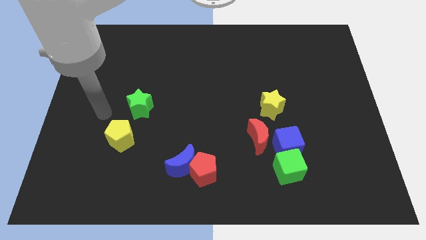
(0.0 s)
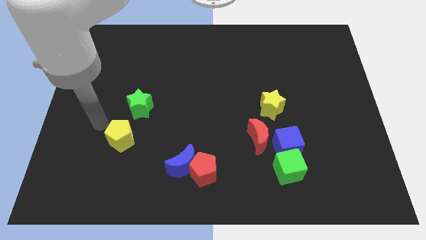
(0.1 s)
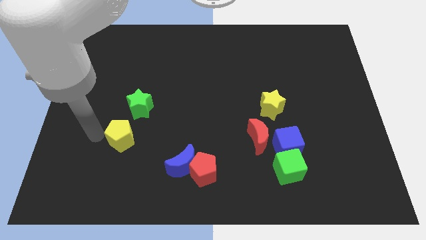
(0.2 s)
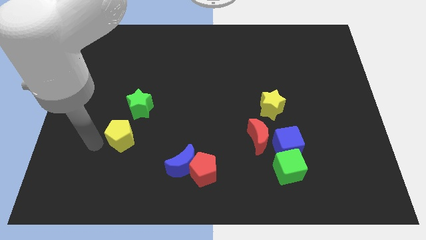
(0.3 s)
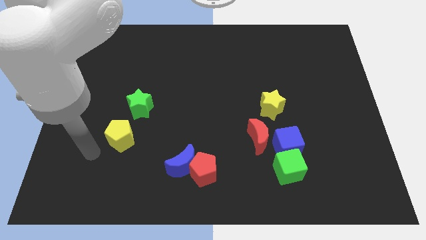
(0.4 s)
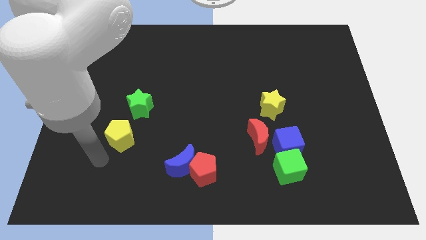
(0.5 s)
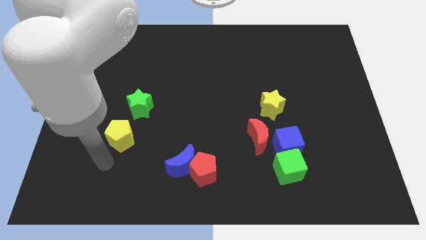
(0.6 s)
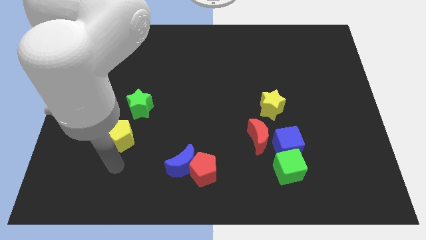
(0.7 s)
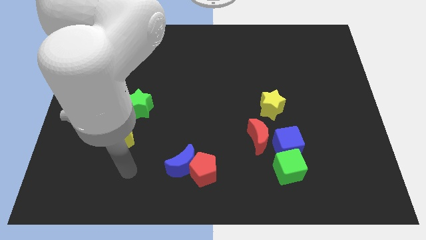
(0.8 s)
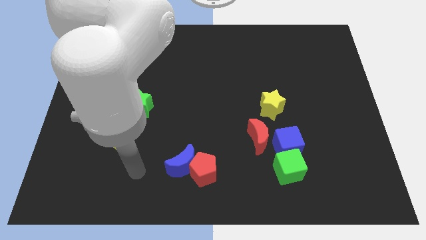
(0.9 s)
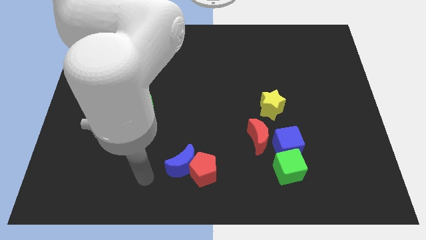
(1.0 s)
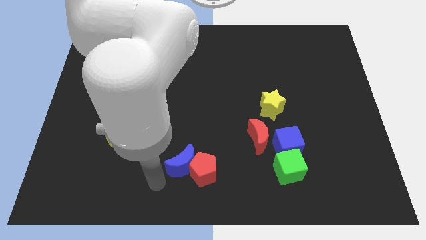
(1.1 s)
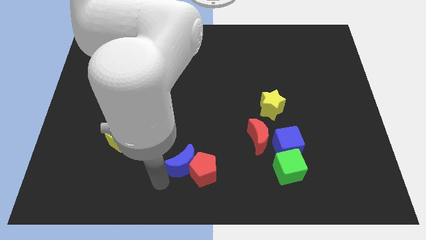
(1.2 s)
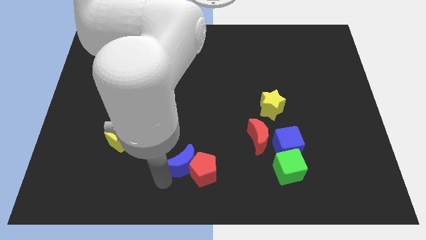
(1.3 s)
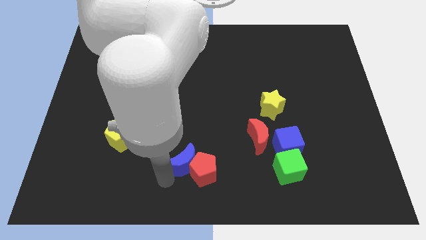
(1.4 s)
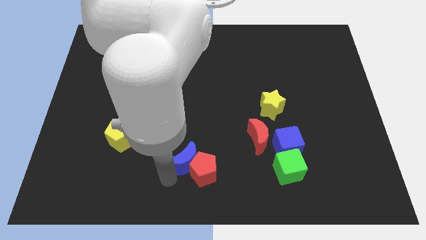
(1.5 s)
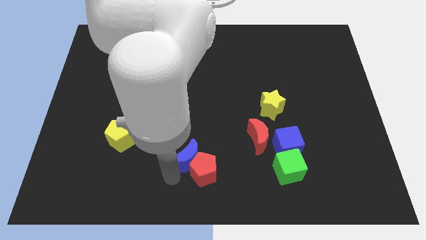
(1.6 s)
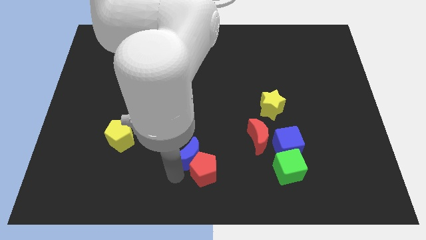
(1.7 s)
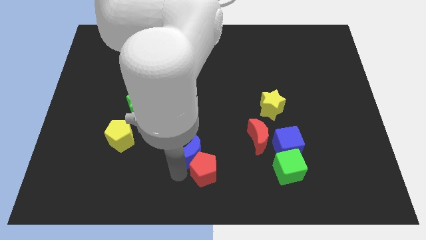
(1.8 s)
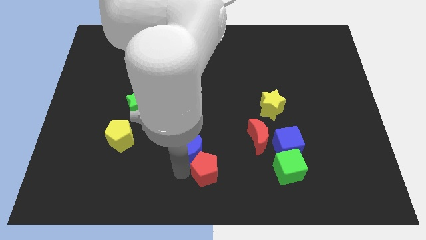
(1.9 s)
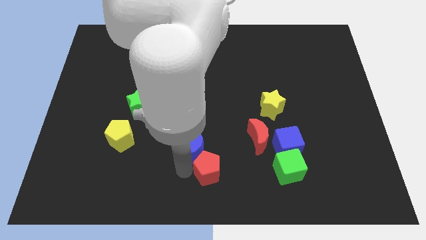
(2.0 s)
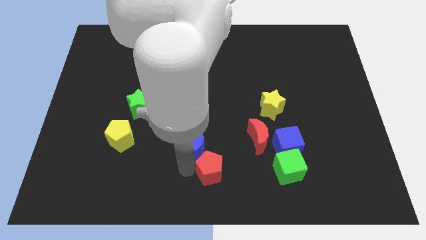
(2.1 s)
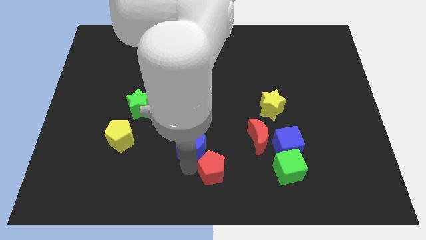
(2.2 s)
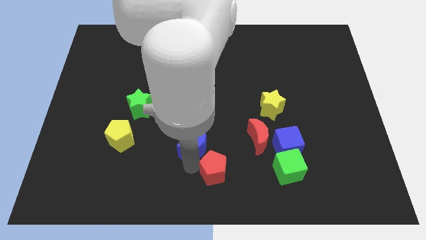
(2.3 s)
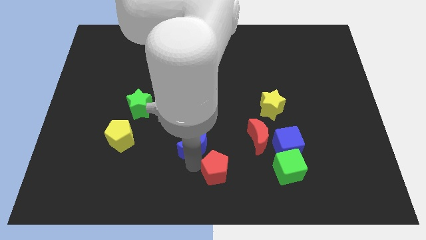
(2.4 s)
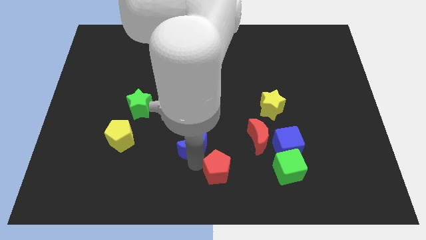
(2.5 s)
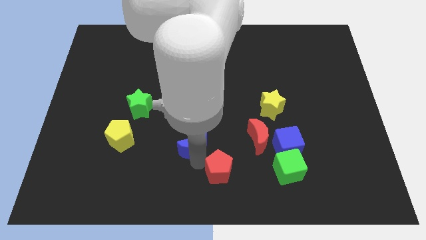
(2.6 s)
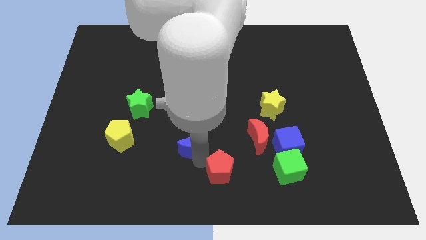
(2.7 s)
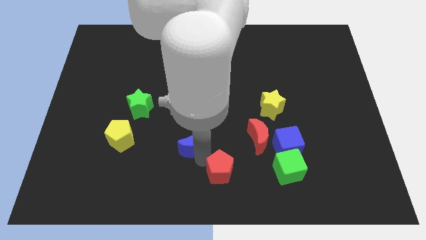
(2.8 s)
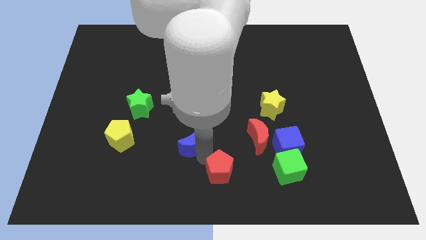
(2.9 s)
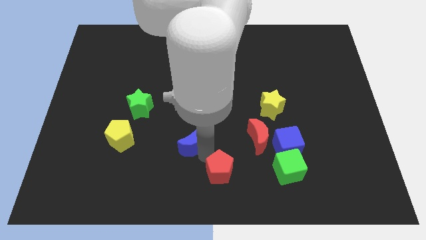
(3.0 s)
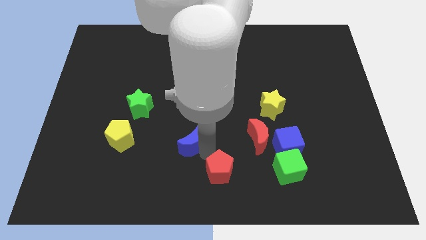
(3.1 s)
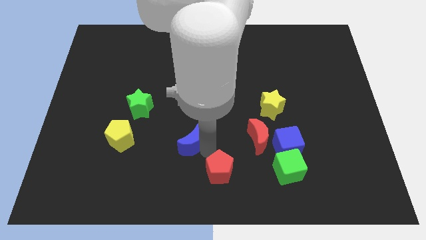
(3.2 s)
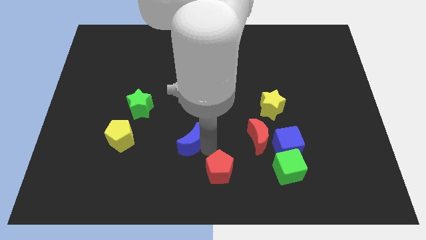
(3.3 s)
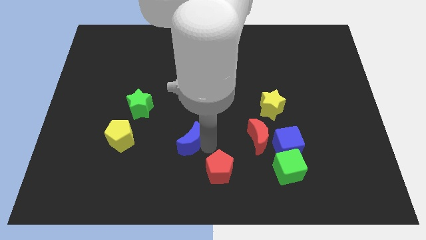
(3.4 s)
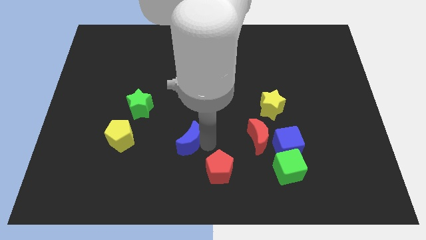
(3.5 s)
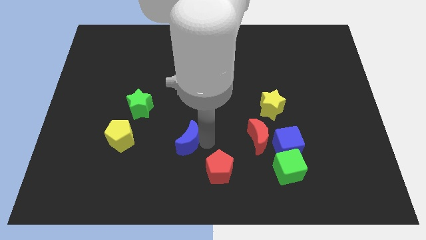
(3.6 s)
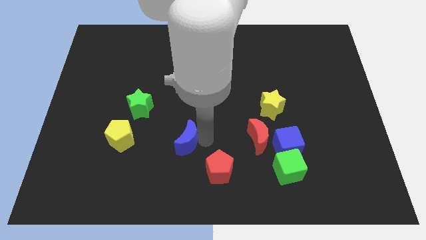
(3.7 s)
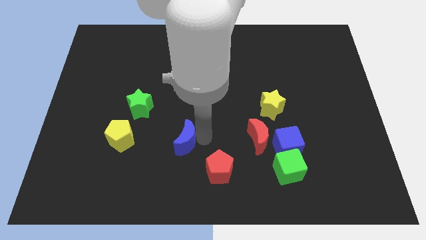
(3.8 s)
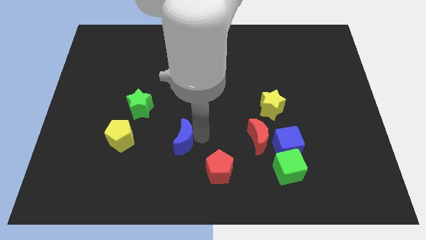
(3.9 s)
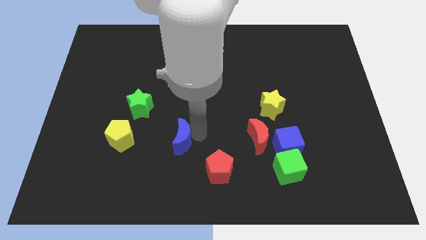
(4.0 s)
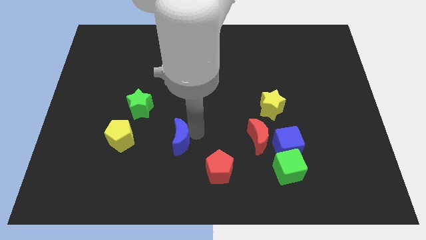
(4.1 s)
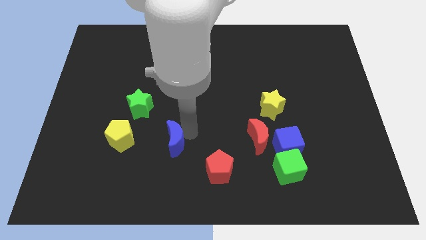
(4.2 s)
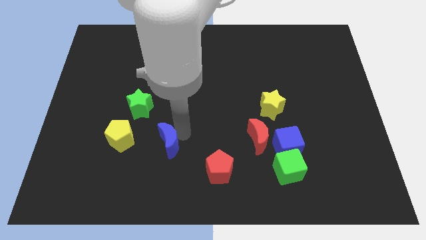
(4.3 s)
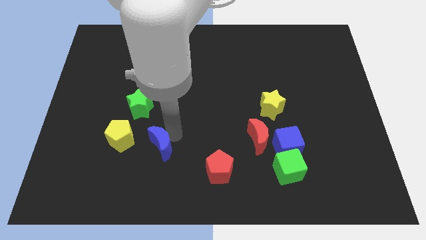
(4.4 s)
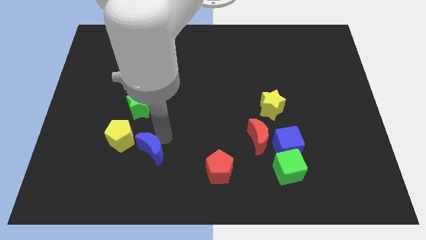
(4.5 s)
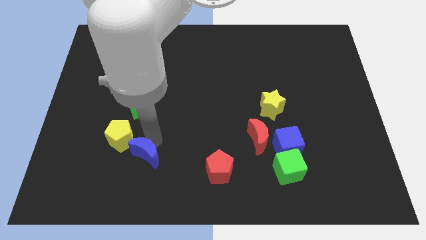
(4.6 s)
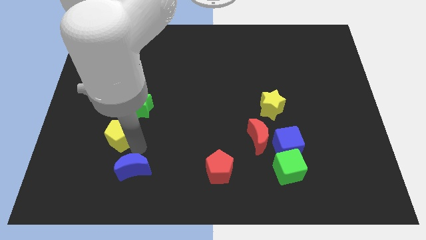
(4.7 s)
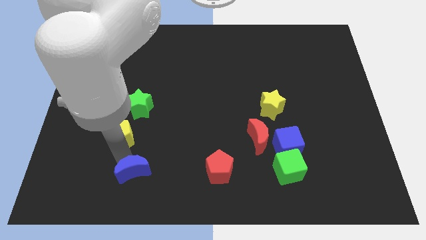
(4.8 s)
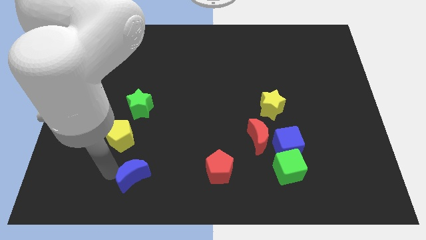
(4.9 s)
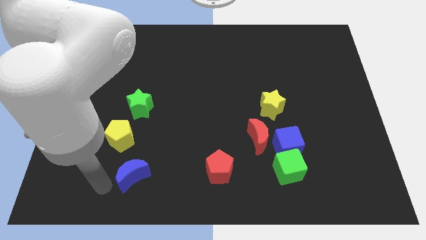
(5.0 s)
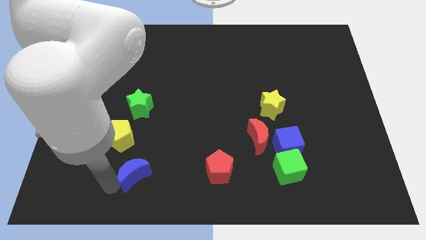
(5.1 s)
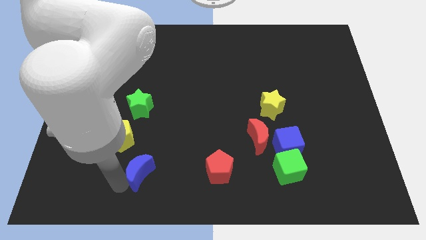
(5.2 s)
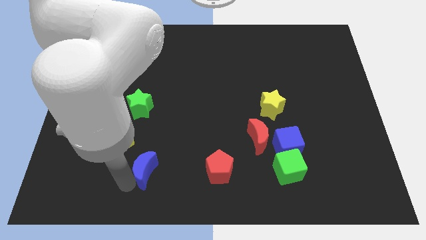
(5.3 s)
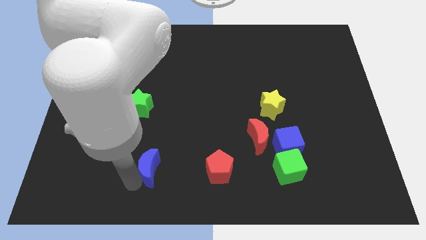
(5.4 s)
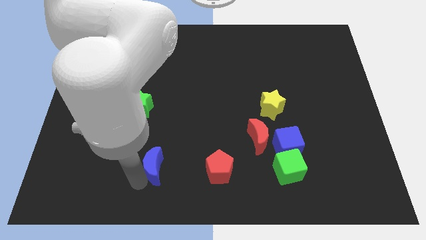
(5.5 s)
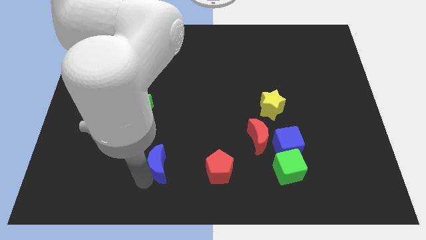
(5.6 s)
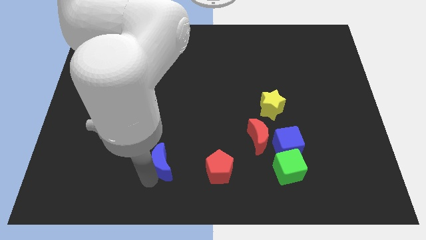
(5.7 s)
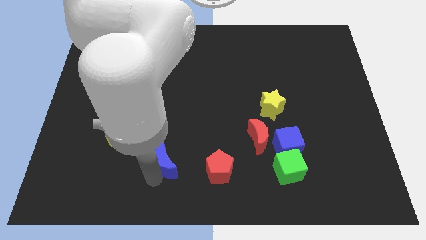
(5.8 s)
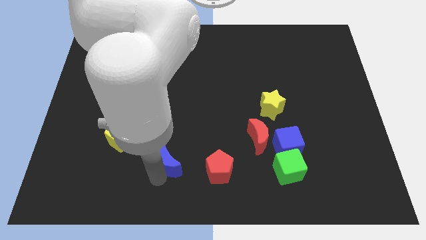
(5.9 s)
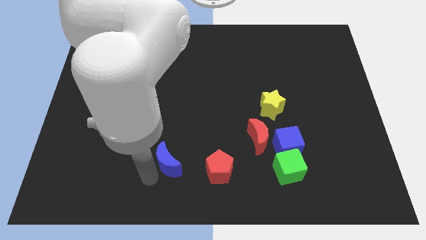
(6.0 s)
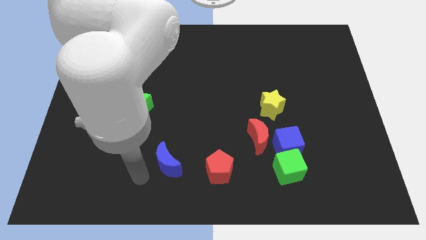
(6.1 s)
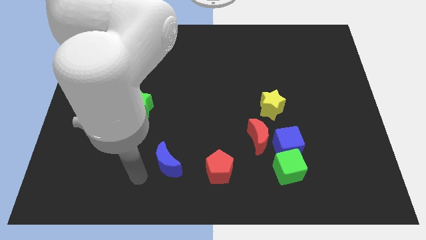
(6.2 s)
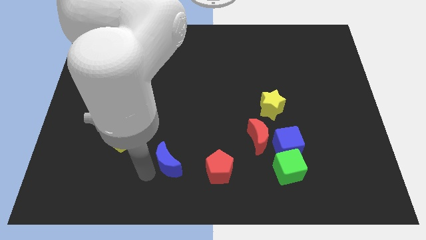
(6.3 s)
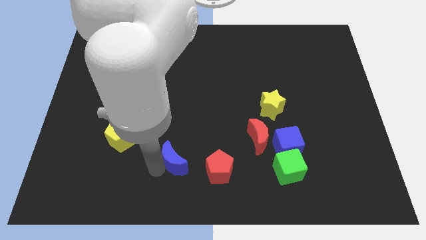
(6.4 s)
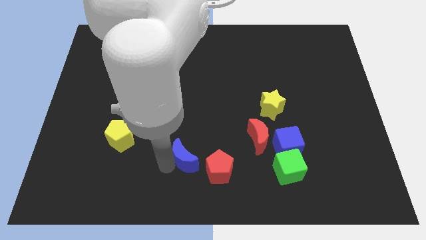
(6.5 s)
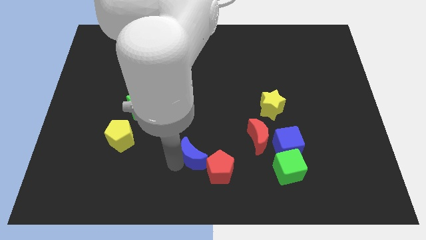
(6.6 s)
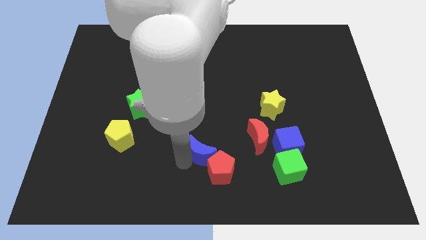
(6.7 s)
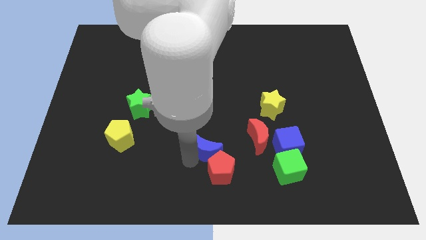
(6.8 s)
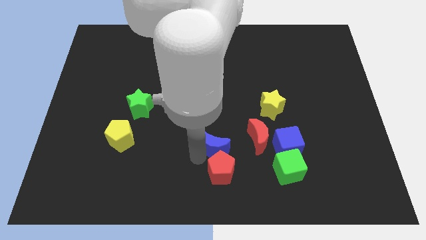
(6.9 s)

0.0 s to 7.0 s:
push the blue moon a little upwards and then right

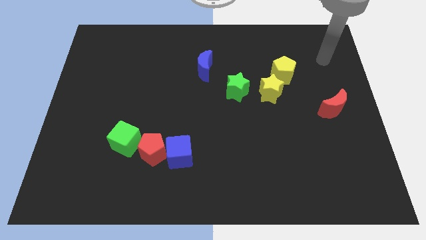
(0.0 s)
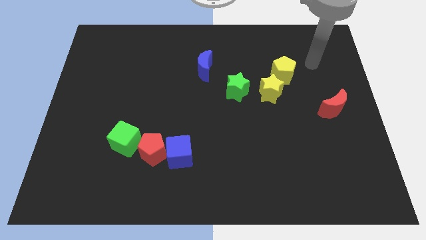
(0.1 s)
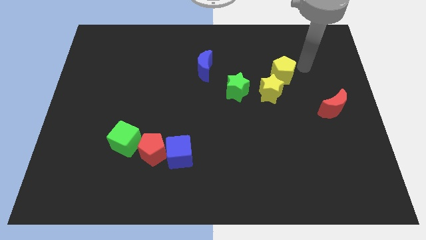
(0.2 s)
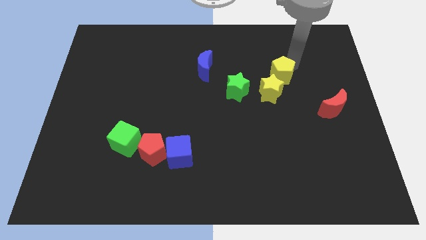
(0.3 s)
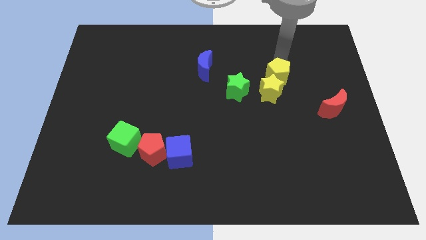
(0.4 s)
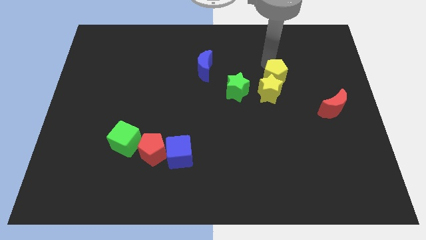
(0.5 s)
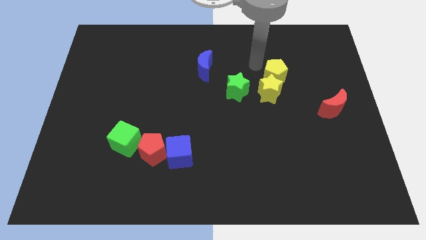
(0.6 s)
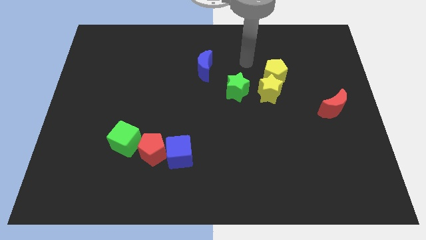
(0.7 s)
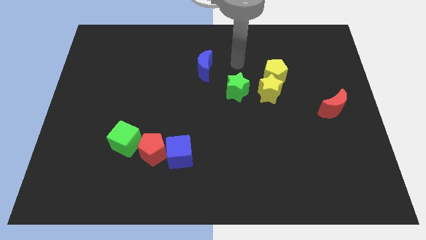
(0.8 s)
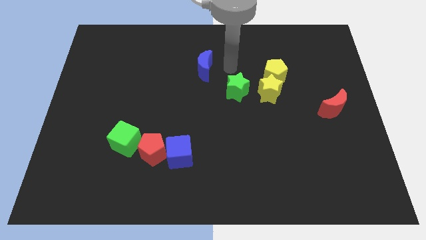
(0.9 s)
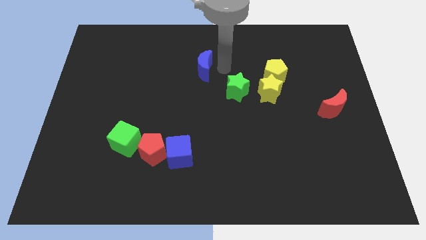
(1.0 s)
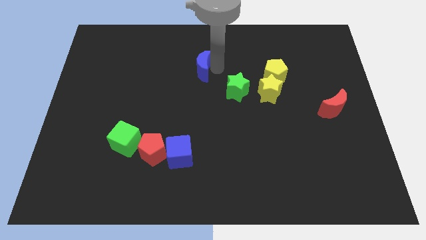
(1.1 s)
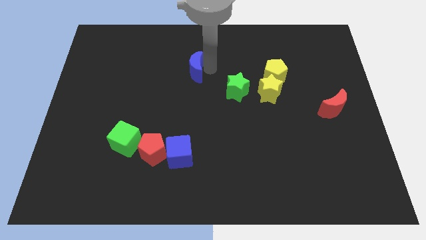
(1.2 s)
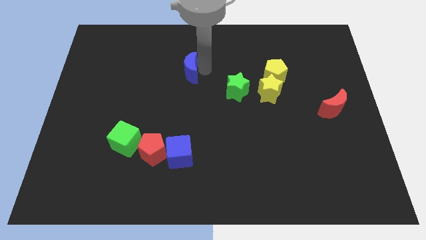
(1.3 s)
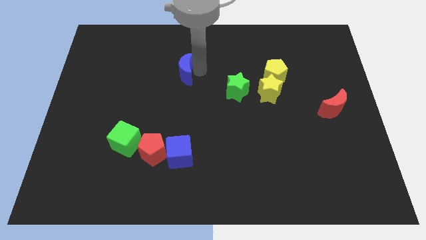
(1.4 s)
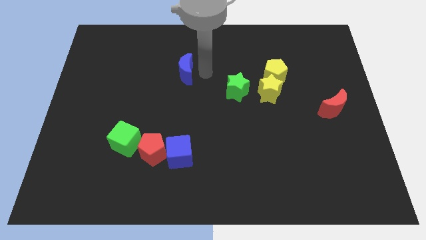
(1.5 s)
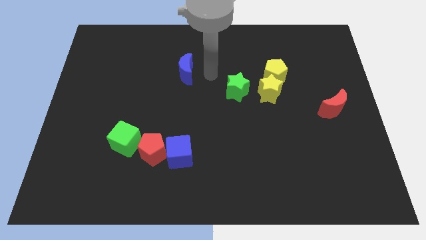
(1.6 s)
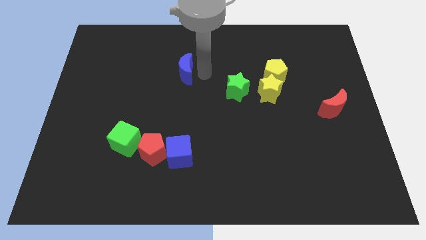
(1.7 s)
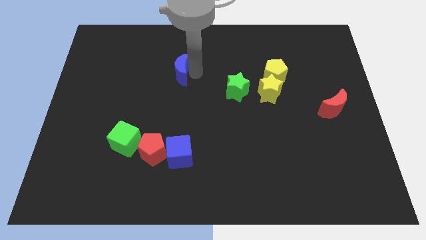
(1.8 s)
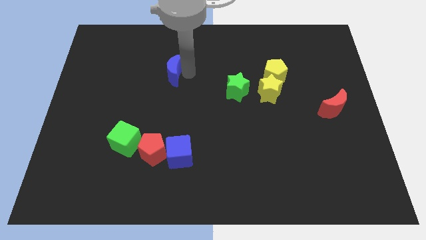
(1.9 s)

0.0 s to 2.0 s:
slide the blue moon left a bit
